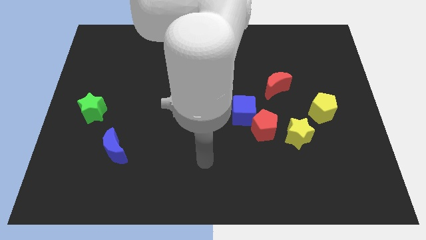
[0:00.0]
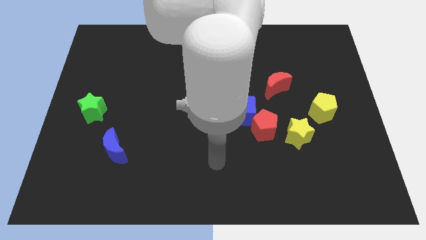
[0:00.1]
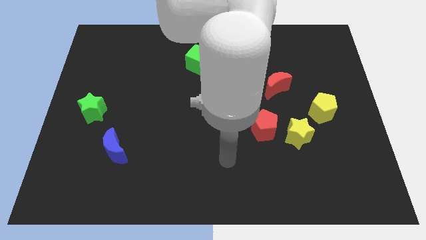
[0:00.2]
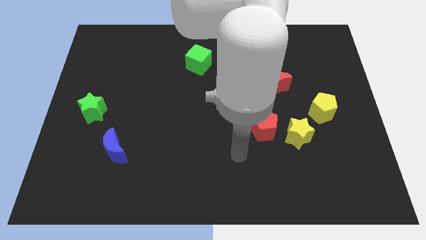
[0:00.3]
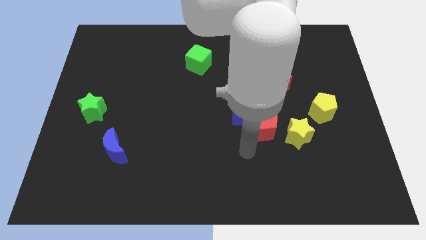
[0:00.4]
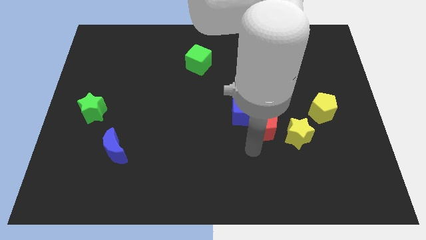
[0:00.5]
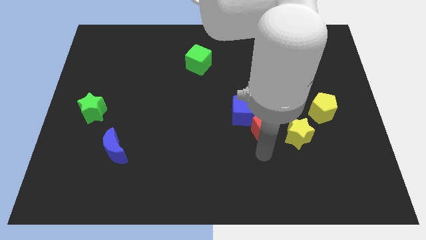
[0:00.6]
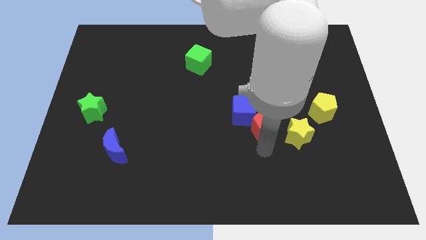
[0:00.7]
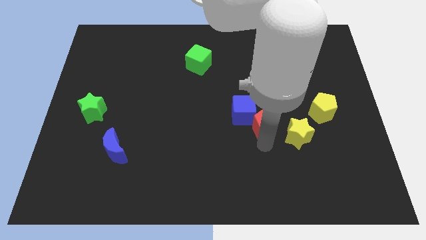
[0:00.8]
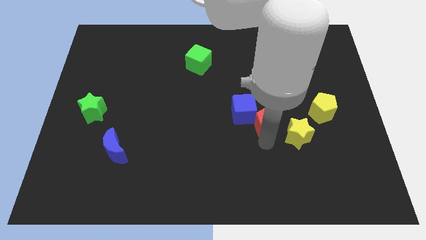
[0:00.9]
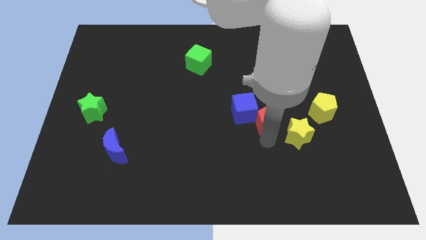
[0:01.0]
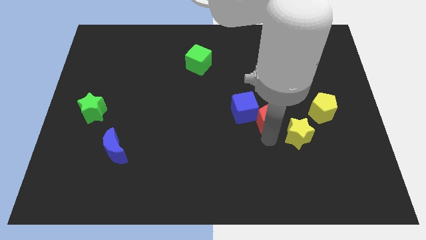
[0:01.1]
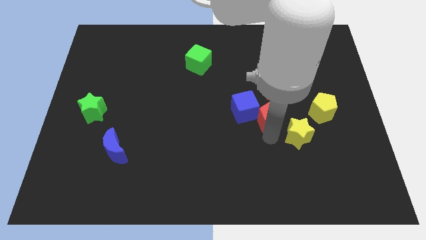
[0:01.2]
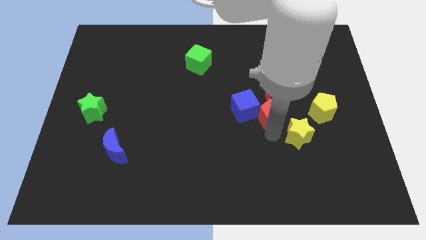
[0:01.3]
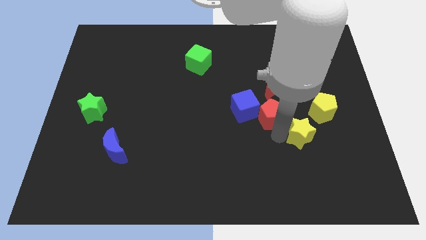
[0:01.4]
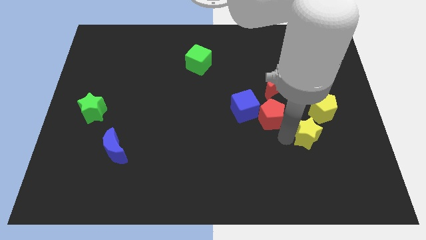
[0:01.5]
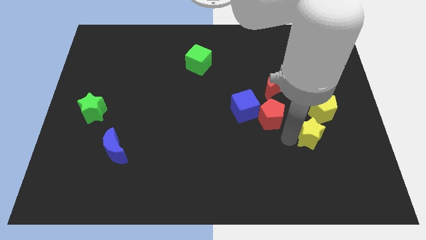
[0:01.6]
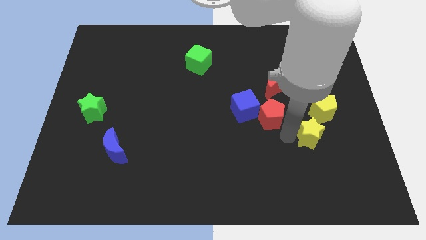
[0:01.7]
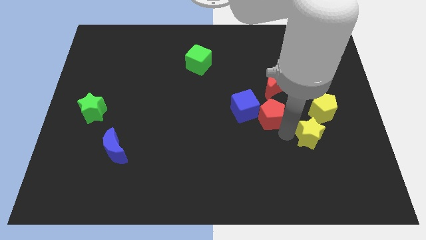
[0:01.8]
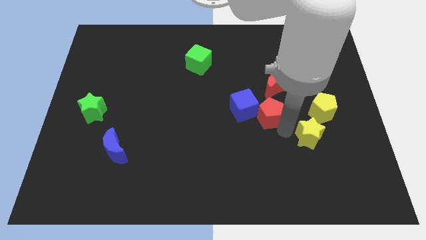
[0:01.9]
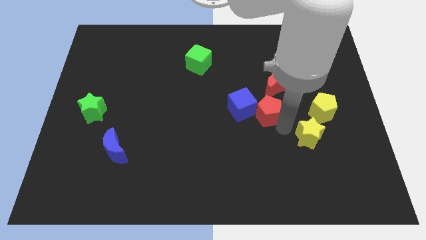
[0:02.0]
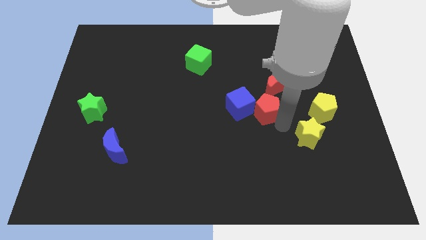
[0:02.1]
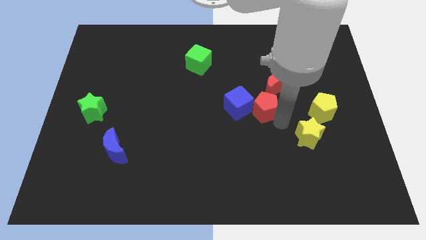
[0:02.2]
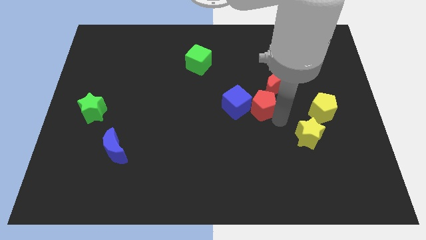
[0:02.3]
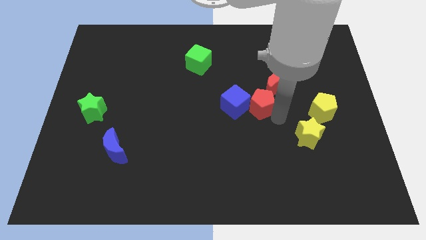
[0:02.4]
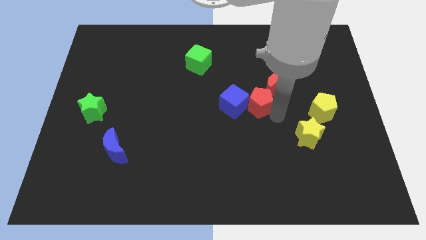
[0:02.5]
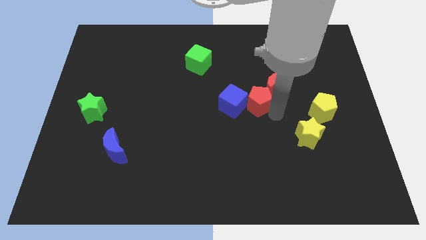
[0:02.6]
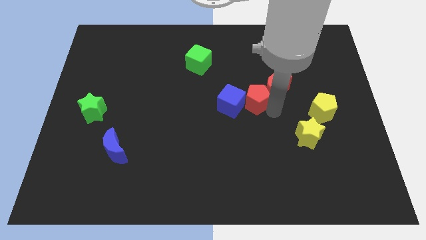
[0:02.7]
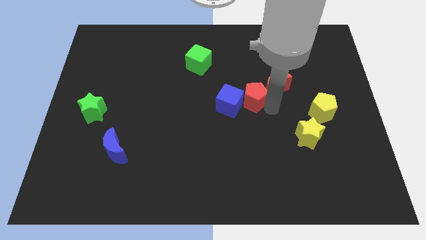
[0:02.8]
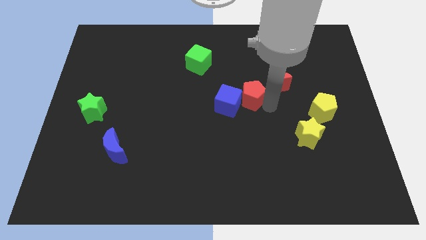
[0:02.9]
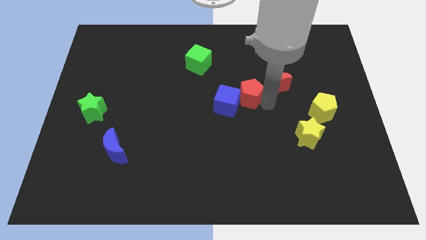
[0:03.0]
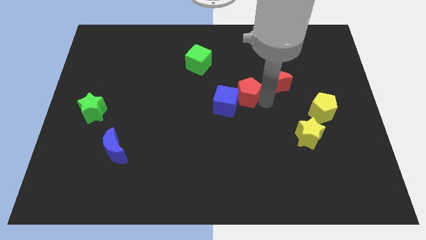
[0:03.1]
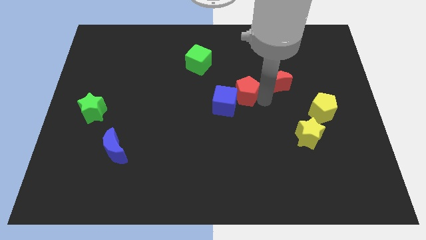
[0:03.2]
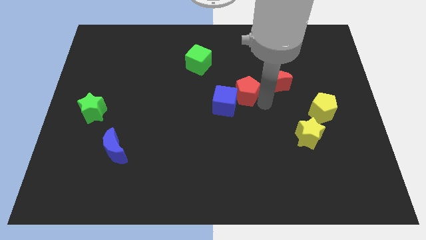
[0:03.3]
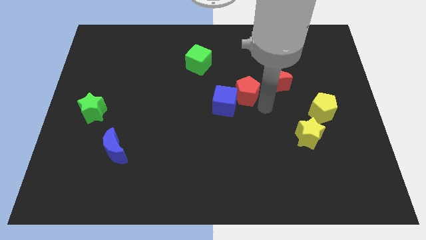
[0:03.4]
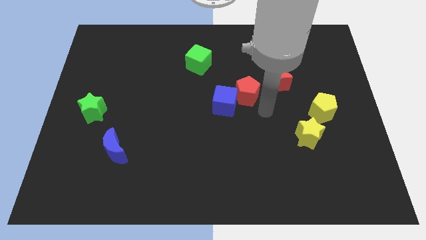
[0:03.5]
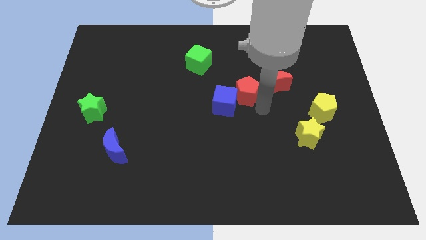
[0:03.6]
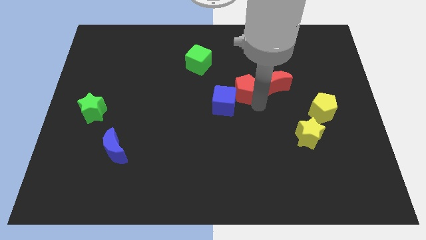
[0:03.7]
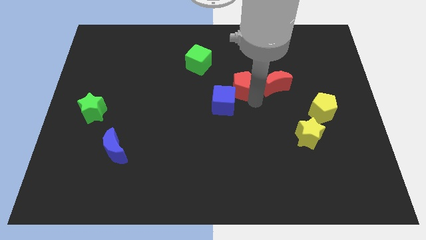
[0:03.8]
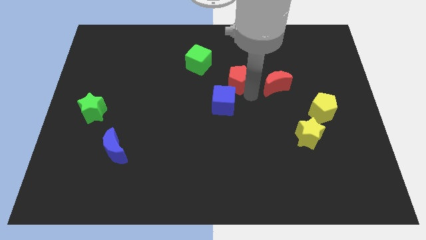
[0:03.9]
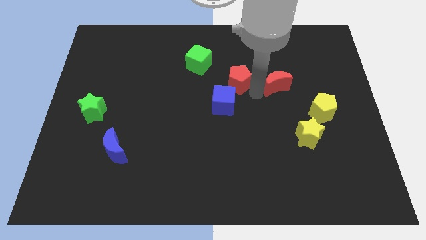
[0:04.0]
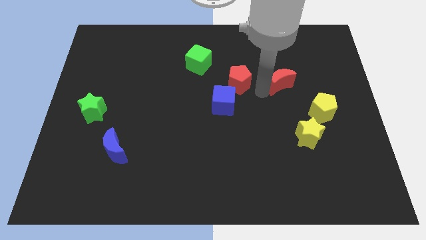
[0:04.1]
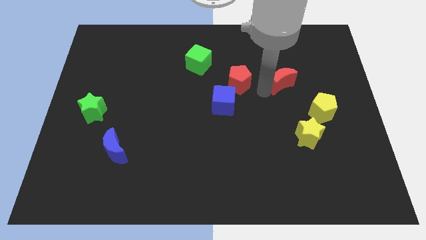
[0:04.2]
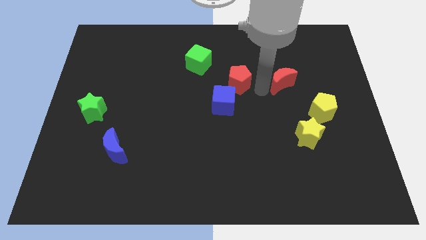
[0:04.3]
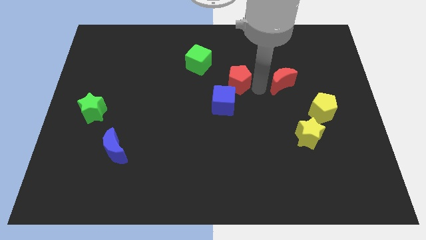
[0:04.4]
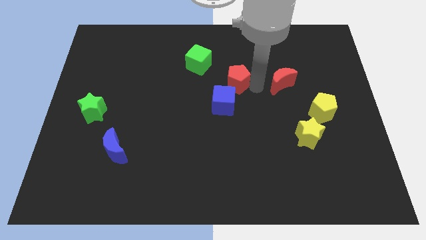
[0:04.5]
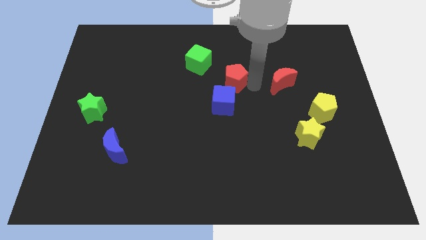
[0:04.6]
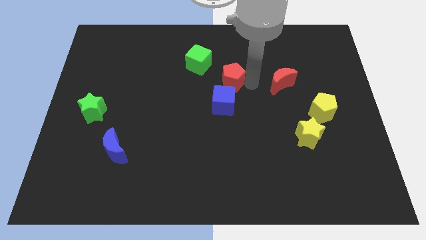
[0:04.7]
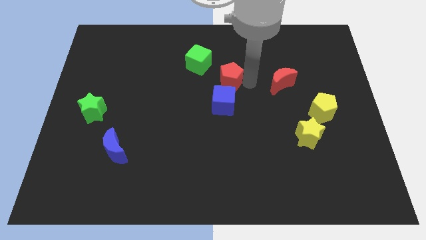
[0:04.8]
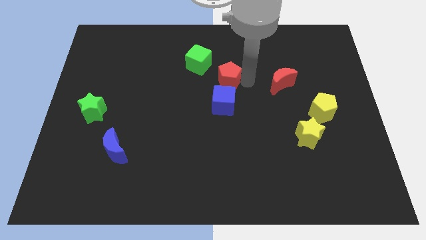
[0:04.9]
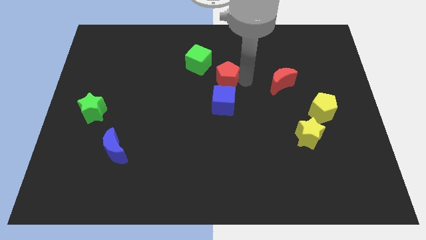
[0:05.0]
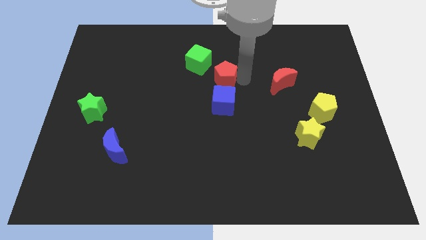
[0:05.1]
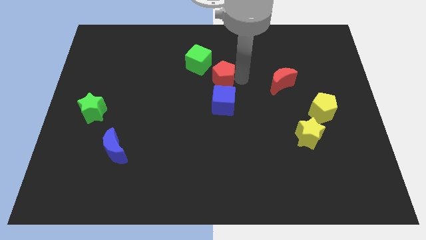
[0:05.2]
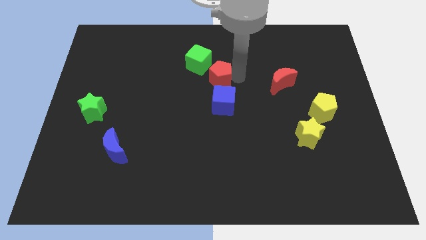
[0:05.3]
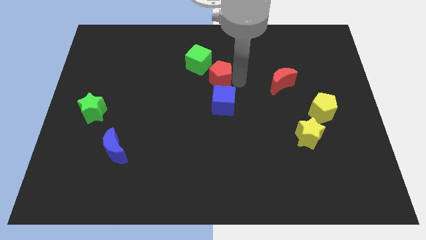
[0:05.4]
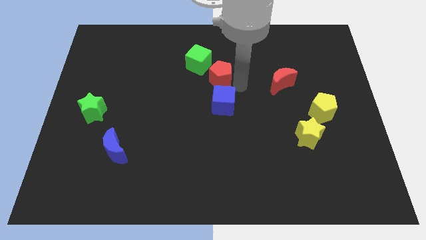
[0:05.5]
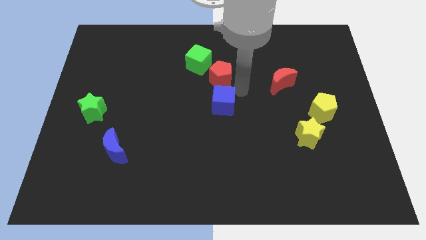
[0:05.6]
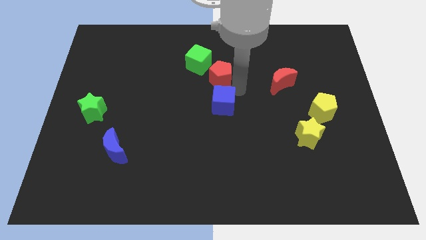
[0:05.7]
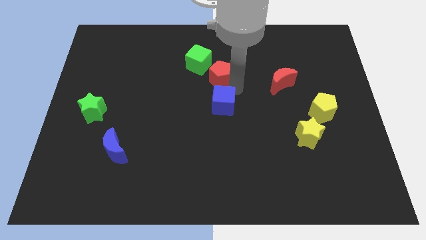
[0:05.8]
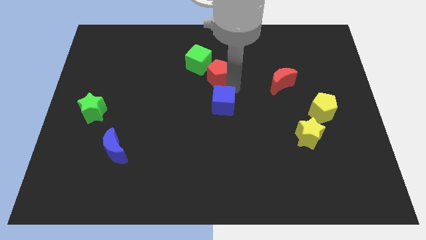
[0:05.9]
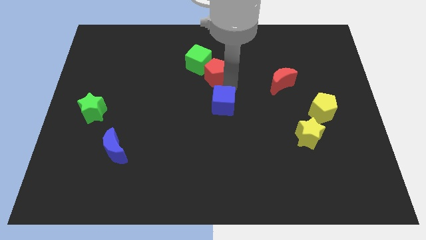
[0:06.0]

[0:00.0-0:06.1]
put the red pentagon to the green cube

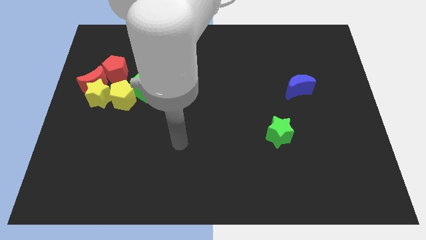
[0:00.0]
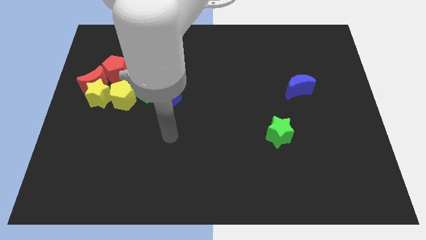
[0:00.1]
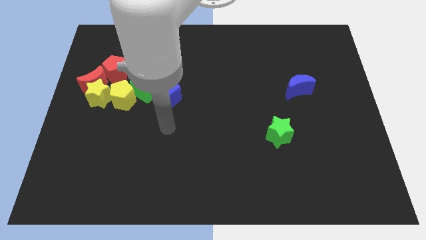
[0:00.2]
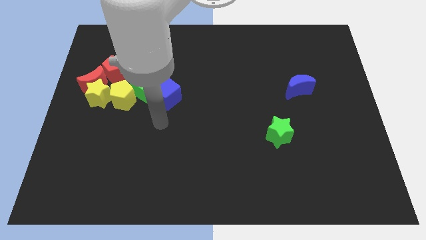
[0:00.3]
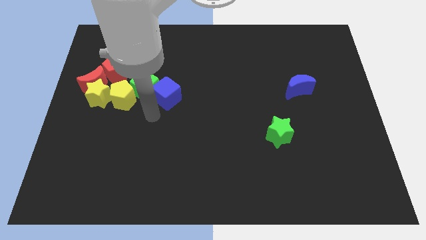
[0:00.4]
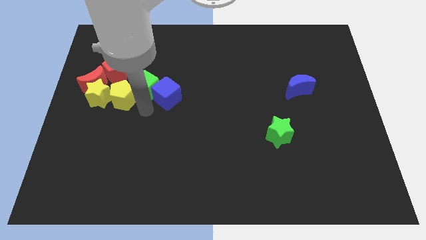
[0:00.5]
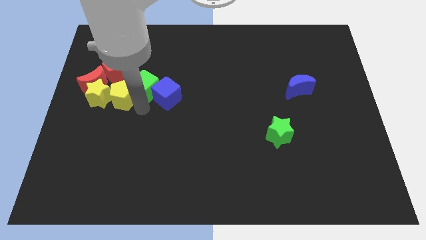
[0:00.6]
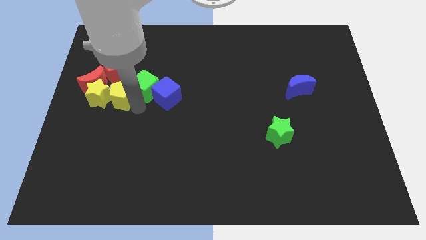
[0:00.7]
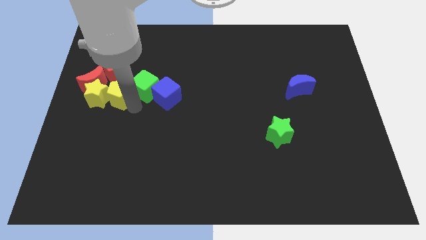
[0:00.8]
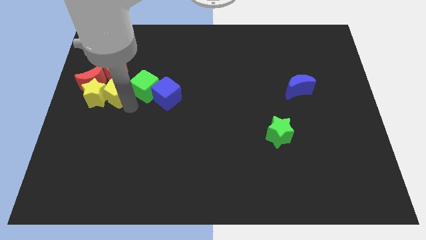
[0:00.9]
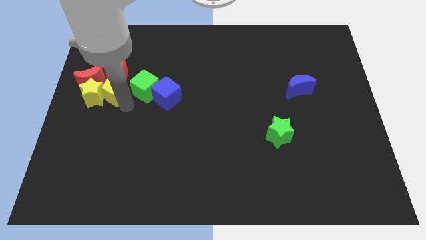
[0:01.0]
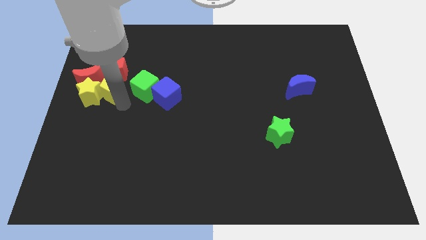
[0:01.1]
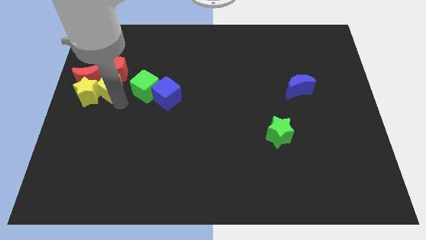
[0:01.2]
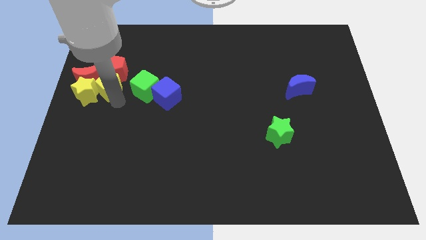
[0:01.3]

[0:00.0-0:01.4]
slide the yellow pentagon towards the red moon

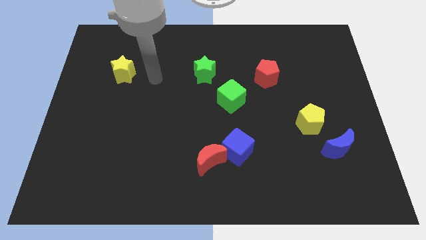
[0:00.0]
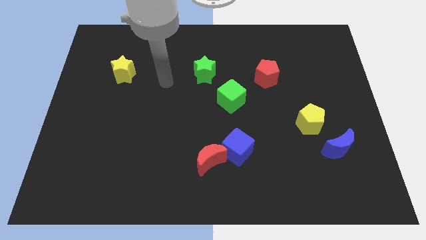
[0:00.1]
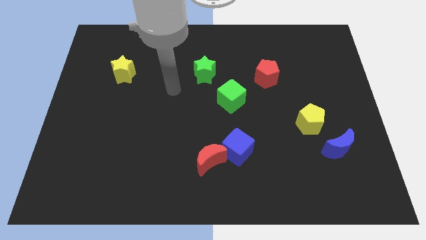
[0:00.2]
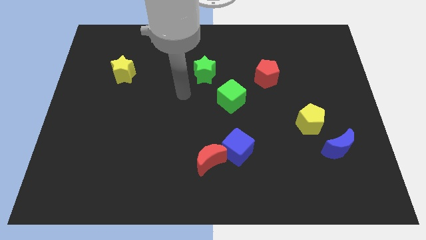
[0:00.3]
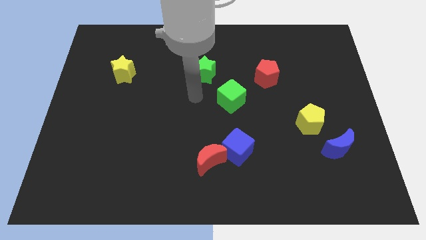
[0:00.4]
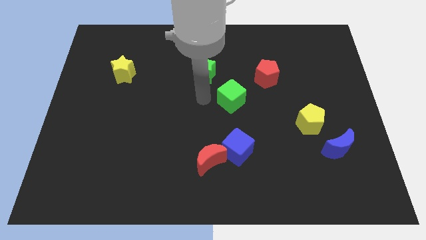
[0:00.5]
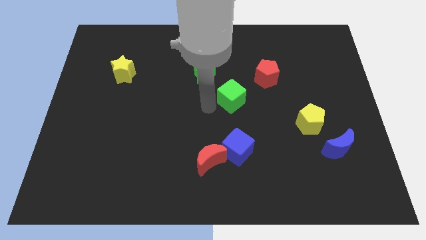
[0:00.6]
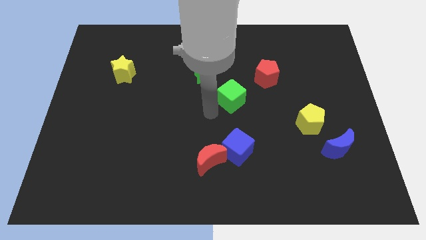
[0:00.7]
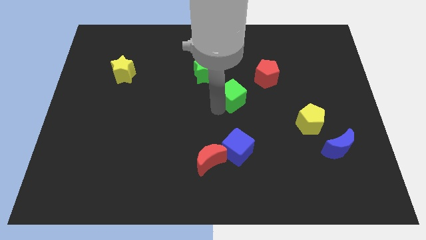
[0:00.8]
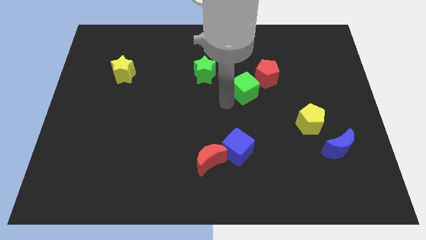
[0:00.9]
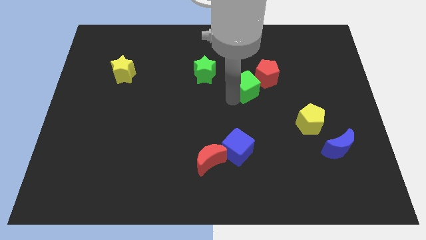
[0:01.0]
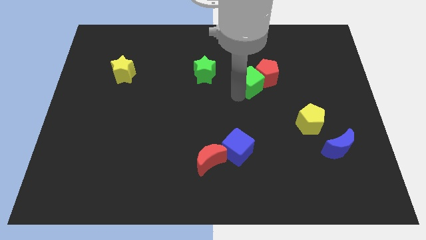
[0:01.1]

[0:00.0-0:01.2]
slide the green cube towards the red pentagon
